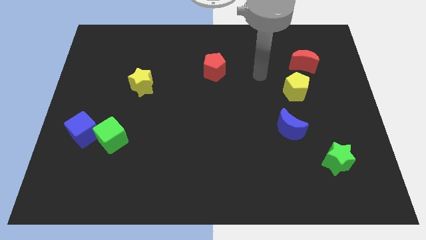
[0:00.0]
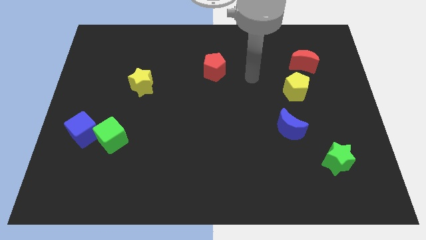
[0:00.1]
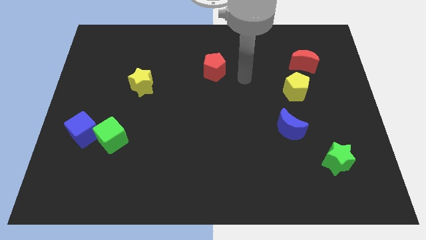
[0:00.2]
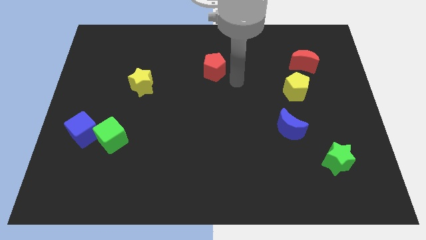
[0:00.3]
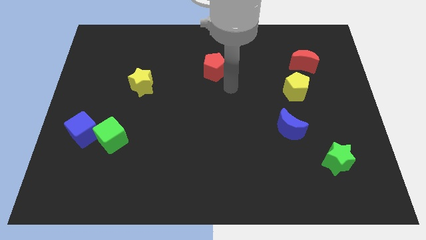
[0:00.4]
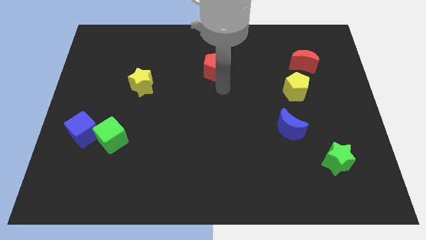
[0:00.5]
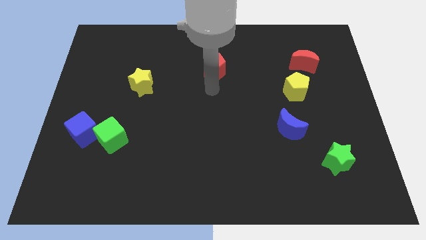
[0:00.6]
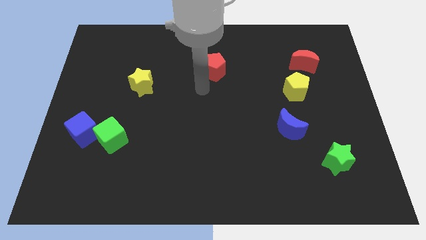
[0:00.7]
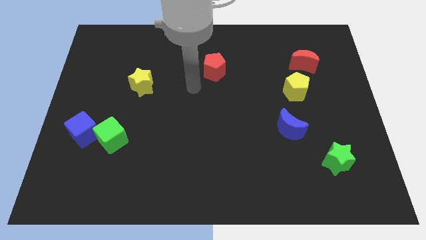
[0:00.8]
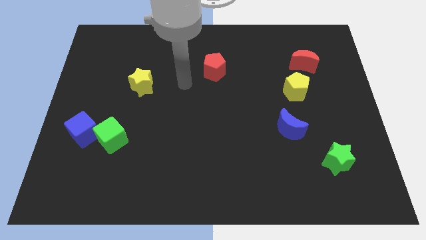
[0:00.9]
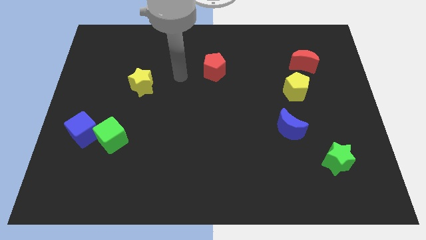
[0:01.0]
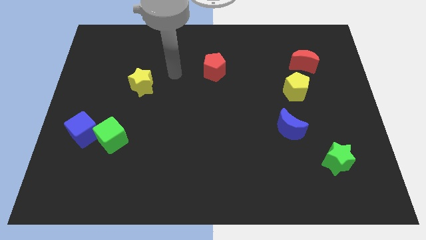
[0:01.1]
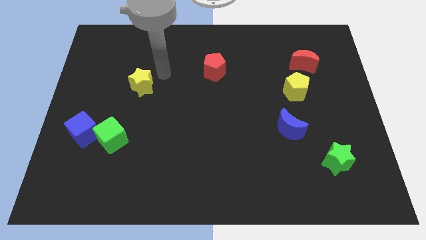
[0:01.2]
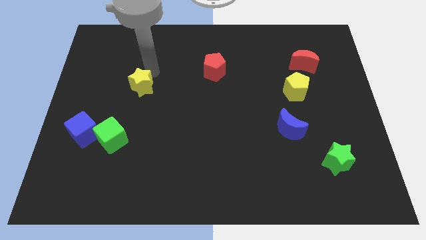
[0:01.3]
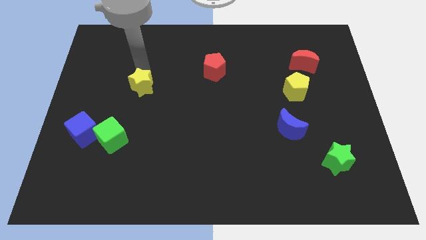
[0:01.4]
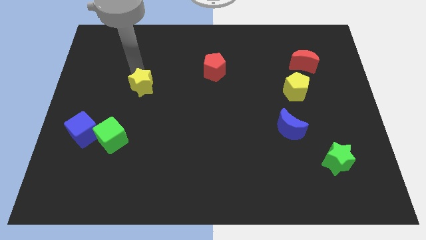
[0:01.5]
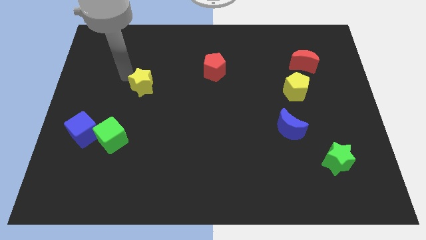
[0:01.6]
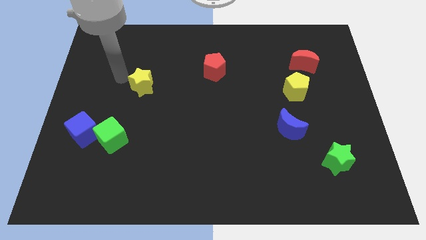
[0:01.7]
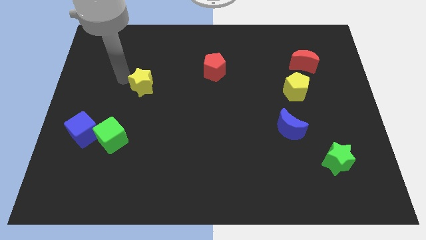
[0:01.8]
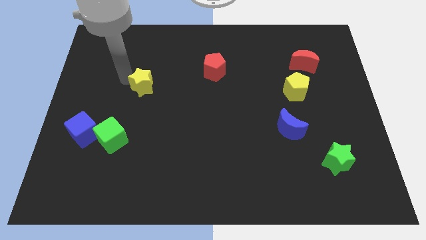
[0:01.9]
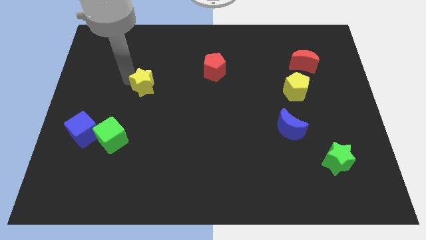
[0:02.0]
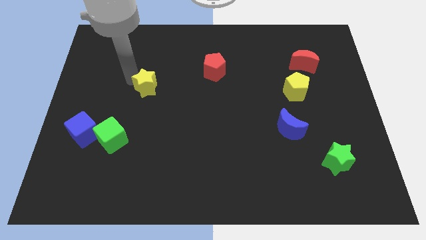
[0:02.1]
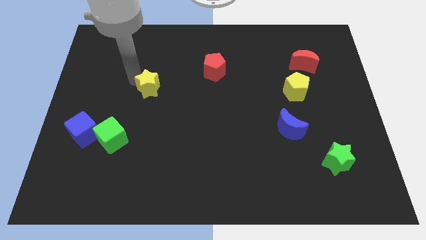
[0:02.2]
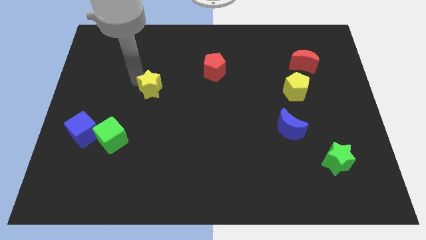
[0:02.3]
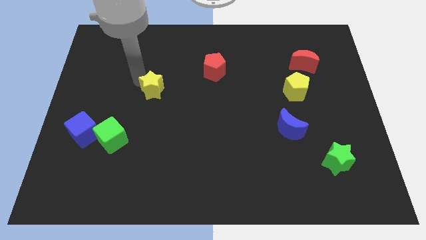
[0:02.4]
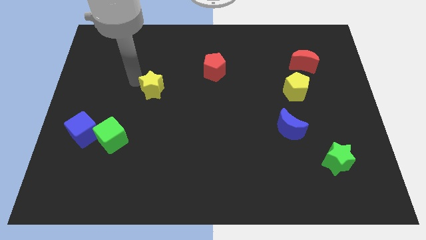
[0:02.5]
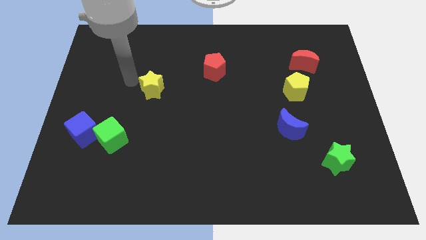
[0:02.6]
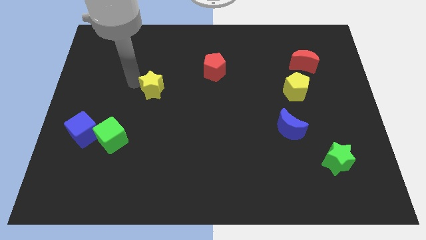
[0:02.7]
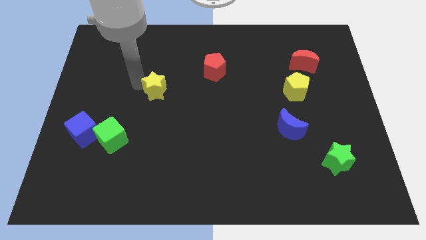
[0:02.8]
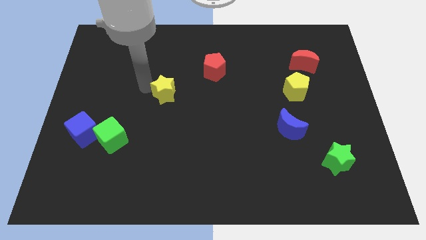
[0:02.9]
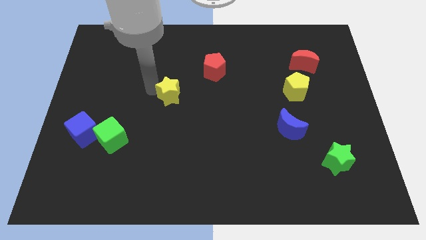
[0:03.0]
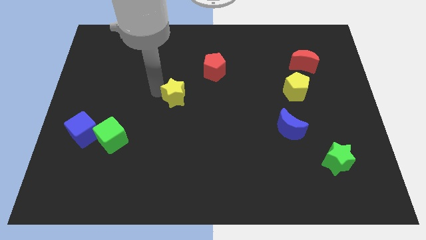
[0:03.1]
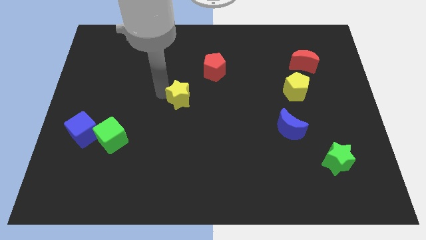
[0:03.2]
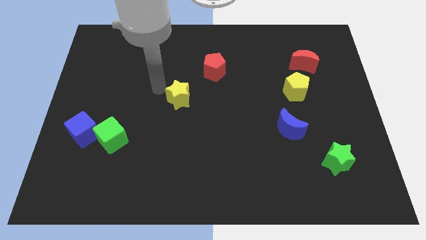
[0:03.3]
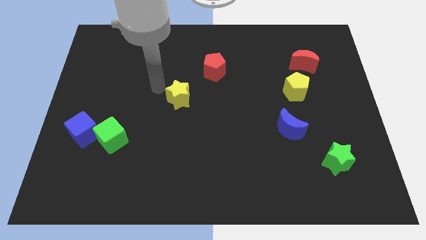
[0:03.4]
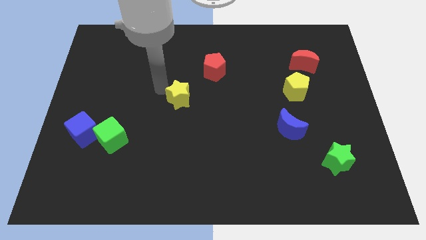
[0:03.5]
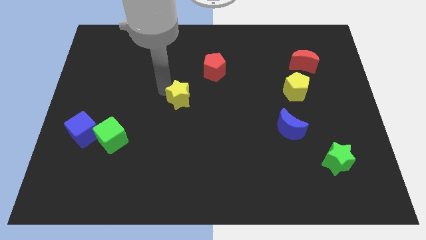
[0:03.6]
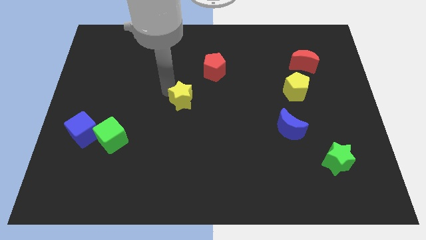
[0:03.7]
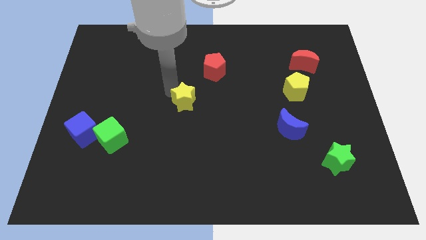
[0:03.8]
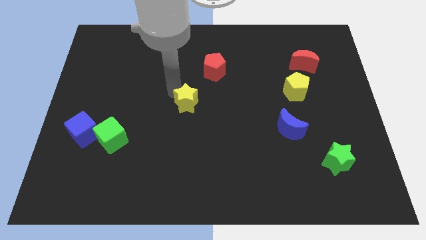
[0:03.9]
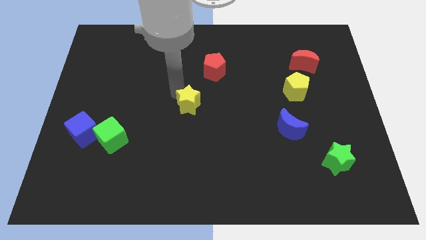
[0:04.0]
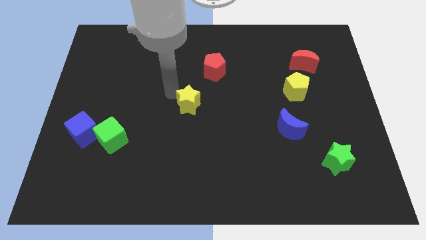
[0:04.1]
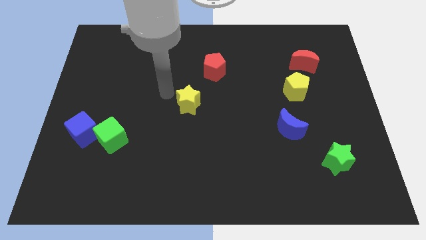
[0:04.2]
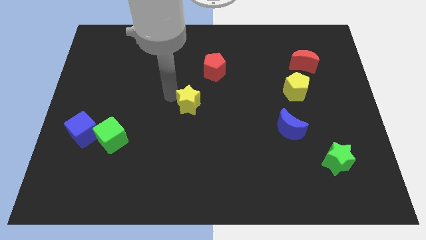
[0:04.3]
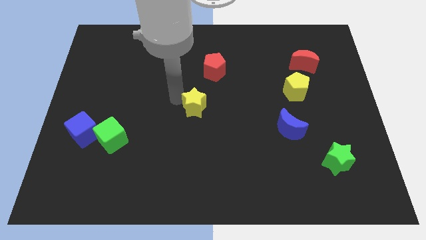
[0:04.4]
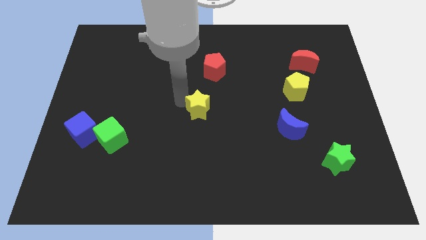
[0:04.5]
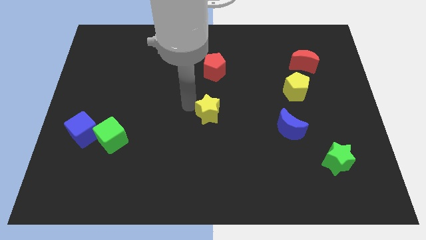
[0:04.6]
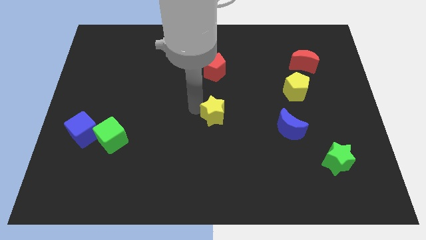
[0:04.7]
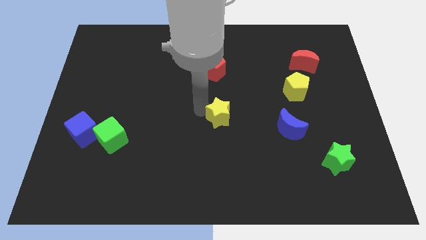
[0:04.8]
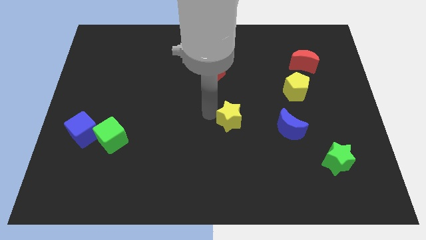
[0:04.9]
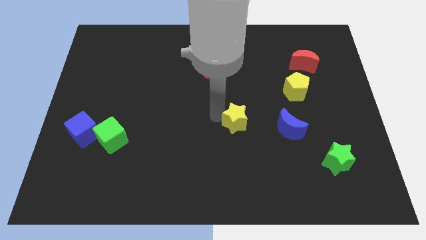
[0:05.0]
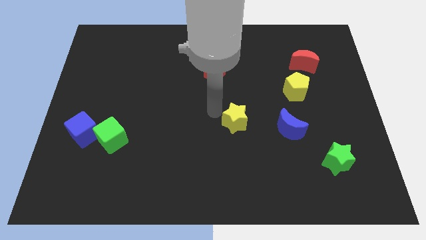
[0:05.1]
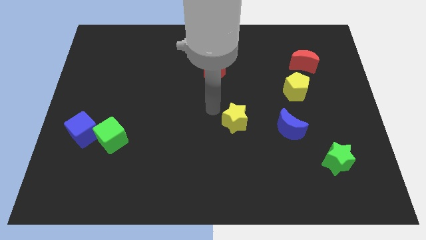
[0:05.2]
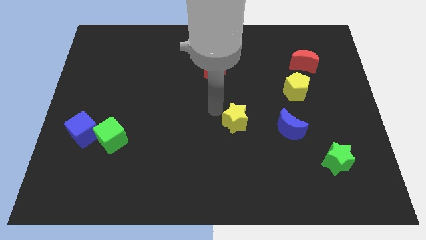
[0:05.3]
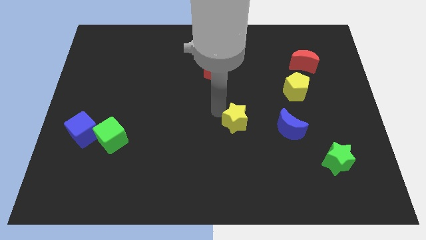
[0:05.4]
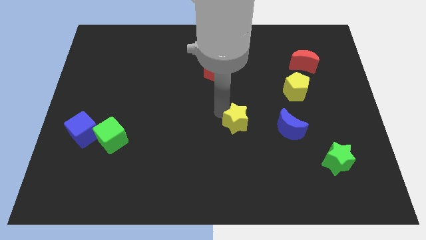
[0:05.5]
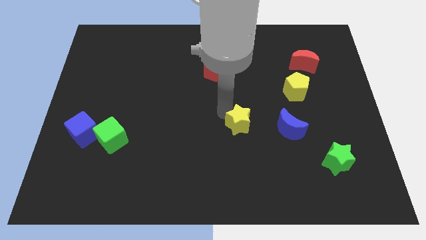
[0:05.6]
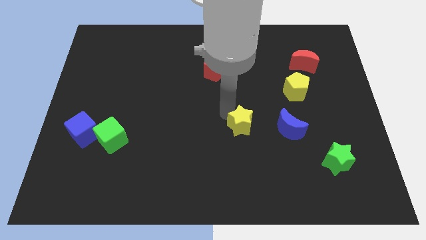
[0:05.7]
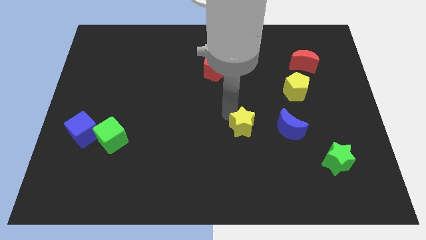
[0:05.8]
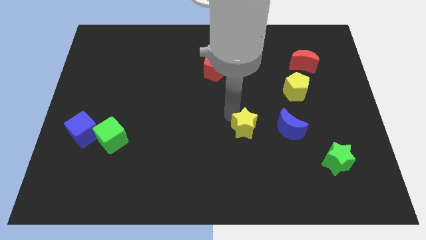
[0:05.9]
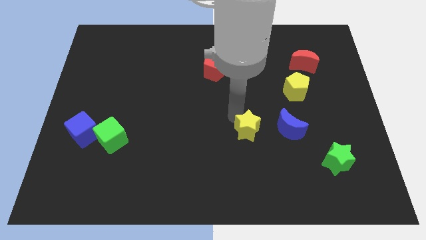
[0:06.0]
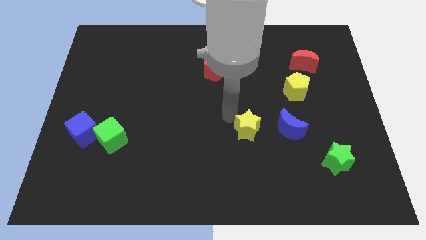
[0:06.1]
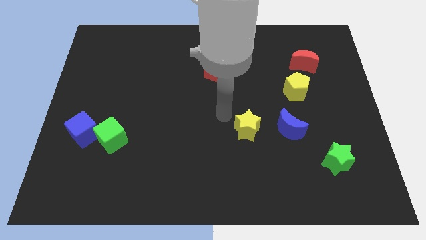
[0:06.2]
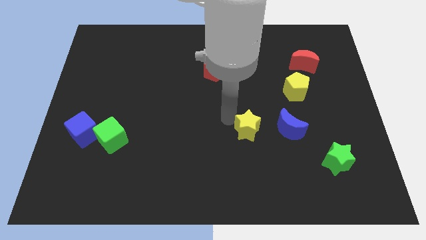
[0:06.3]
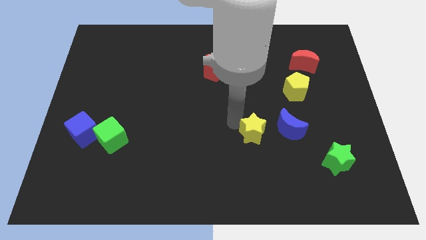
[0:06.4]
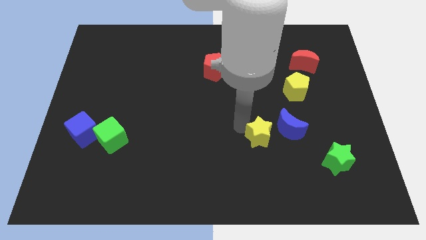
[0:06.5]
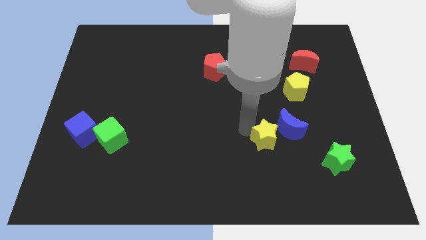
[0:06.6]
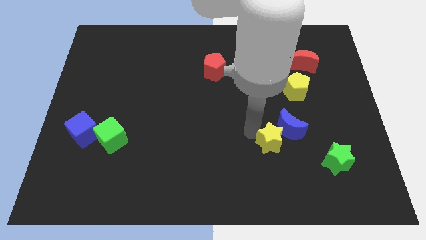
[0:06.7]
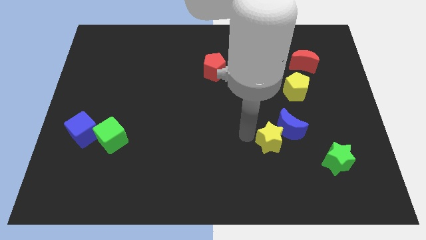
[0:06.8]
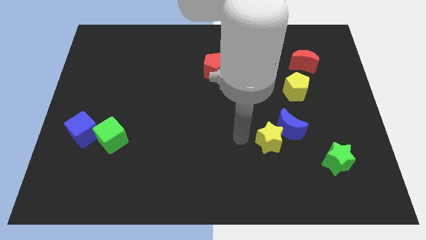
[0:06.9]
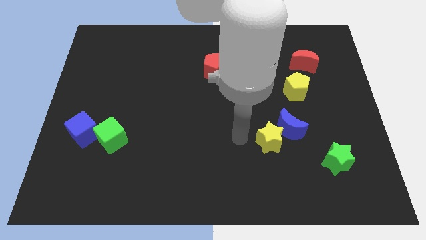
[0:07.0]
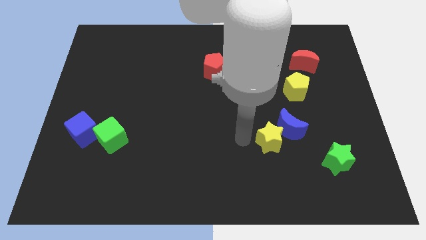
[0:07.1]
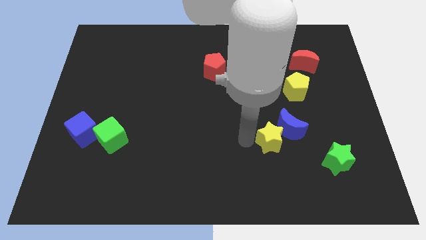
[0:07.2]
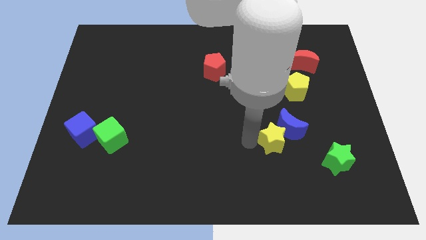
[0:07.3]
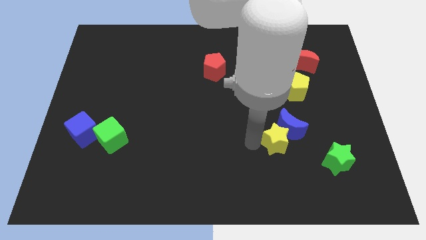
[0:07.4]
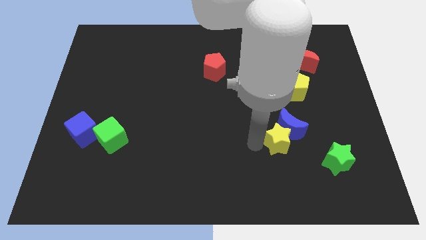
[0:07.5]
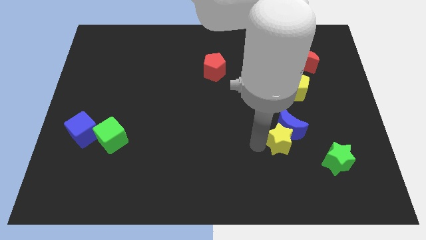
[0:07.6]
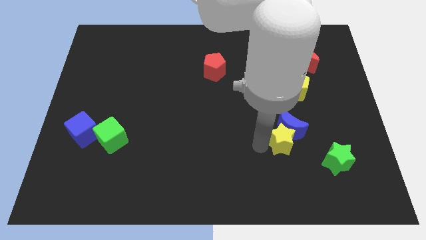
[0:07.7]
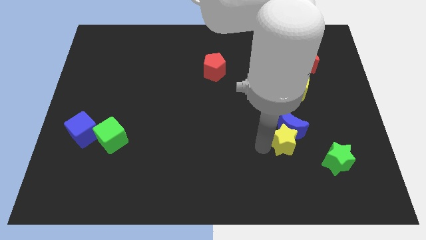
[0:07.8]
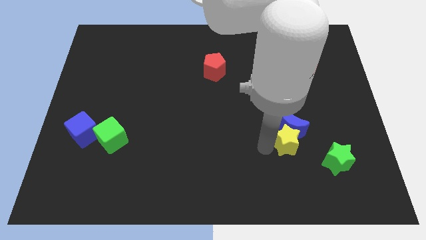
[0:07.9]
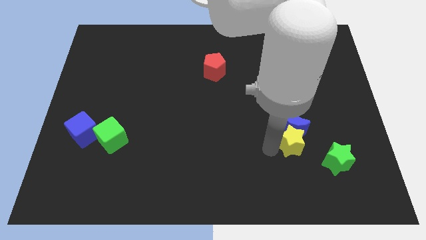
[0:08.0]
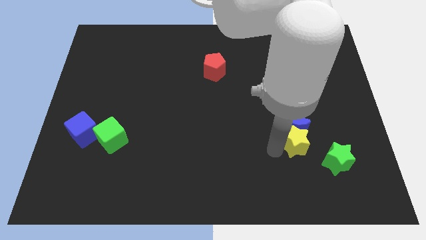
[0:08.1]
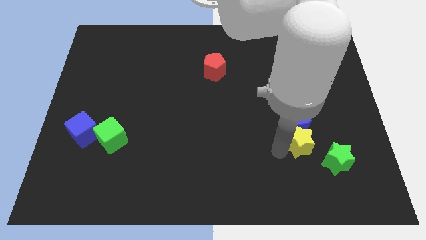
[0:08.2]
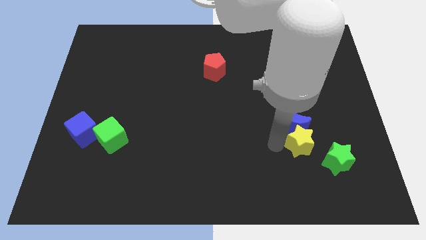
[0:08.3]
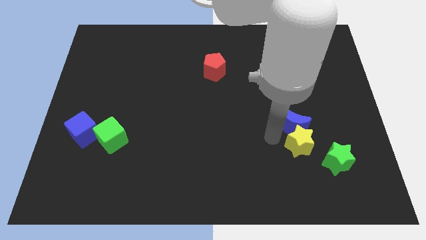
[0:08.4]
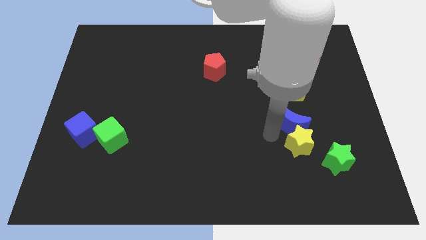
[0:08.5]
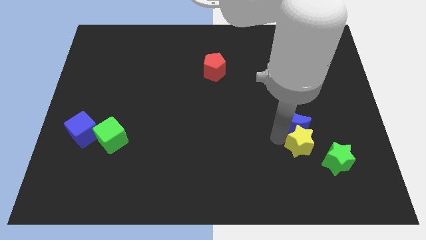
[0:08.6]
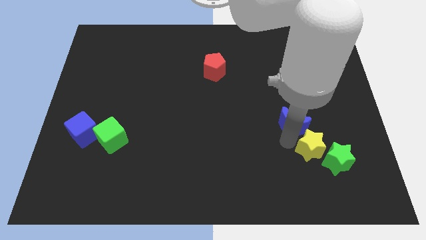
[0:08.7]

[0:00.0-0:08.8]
slide the yellow star next to the green star
